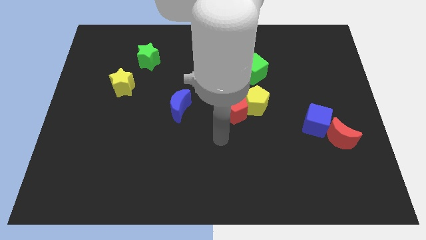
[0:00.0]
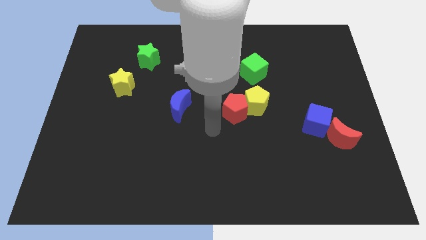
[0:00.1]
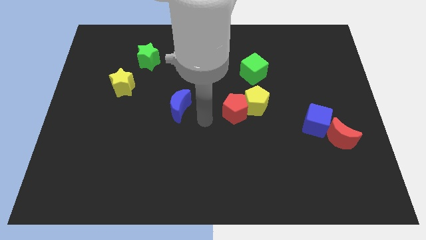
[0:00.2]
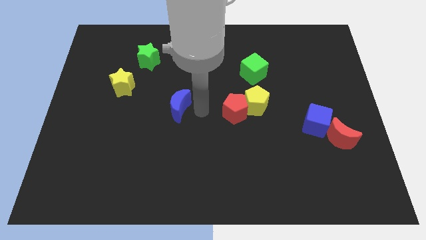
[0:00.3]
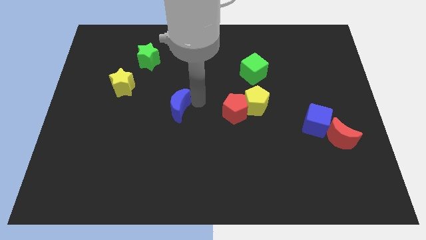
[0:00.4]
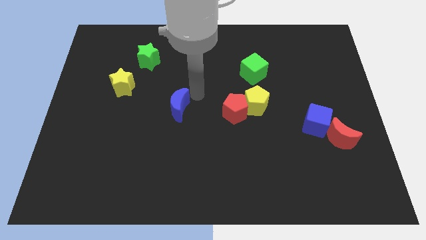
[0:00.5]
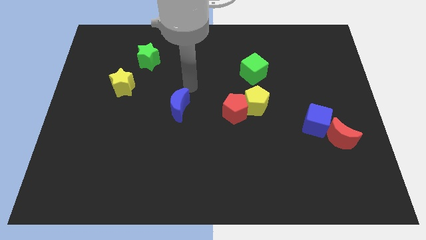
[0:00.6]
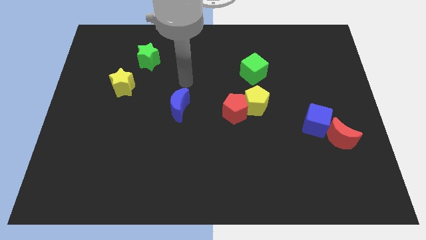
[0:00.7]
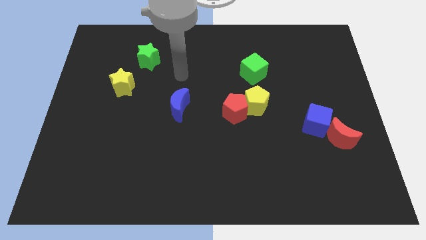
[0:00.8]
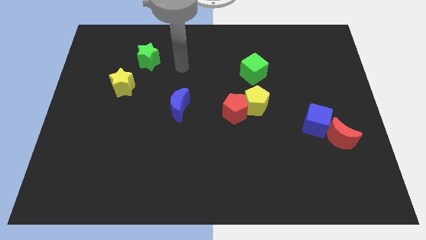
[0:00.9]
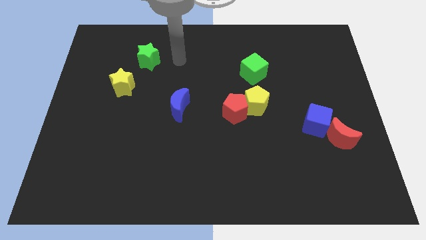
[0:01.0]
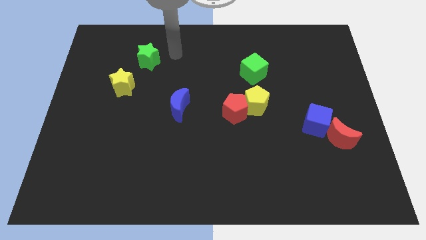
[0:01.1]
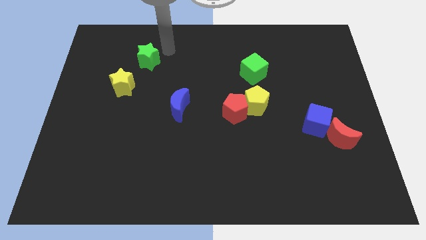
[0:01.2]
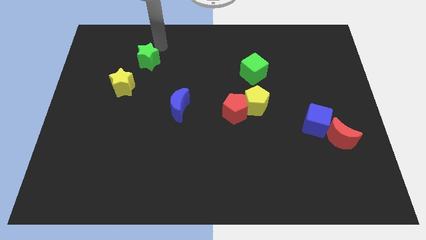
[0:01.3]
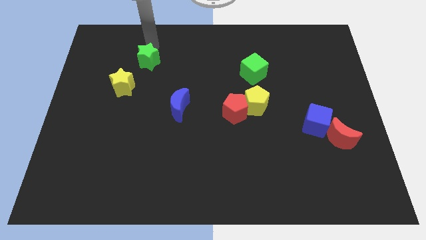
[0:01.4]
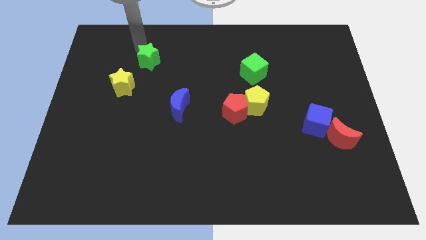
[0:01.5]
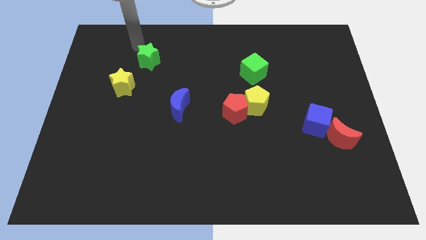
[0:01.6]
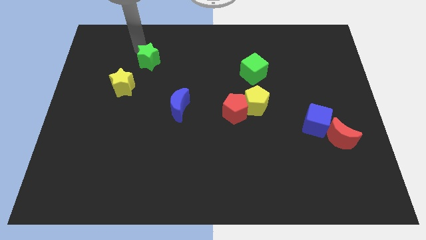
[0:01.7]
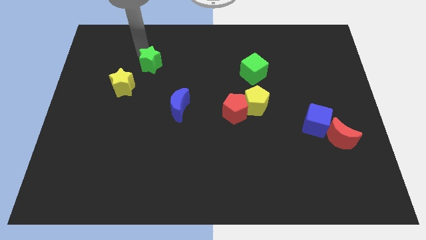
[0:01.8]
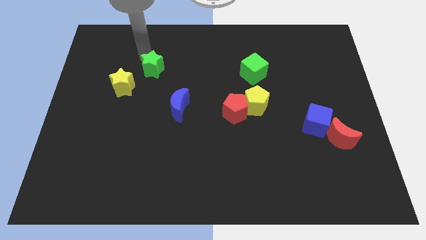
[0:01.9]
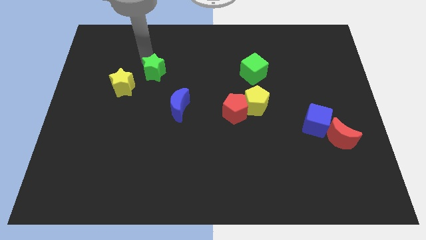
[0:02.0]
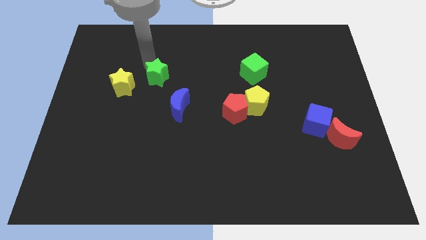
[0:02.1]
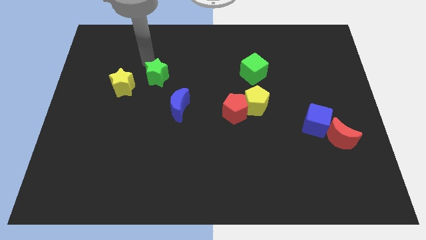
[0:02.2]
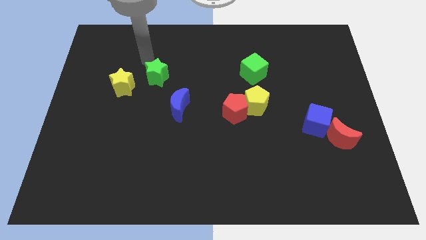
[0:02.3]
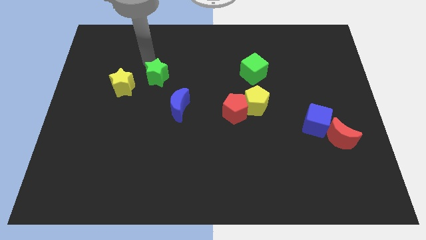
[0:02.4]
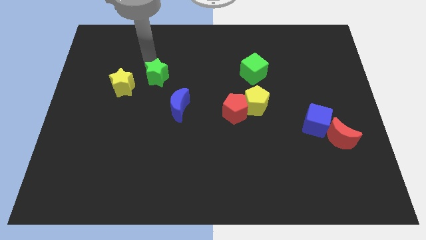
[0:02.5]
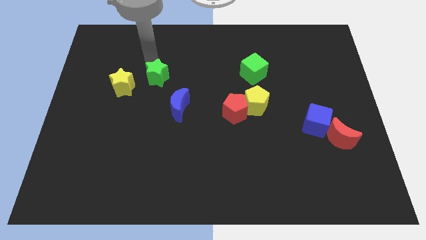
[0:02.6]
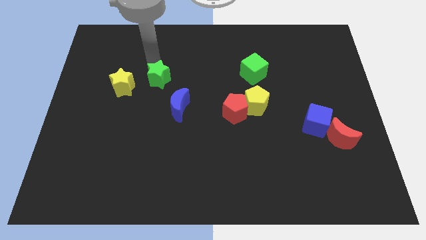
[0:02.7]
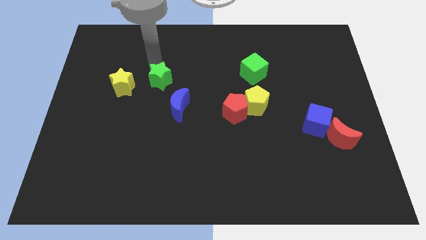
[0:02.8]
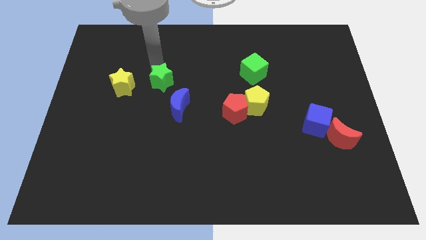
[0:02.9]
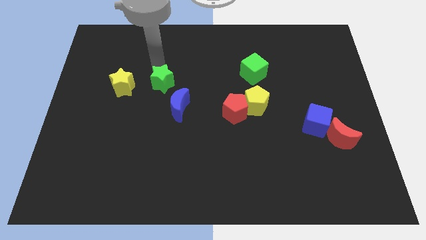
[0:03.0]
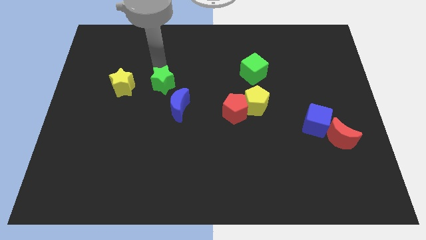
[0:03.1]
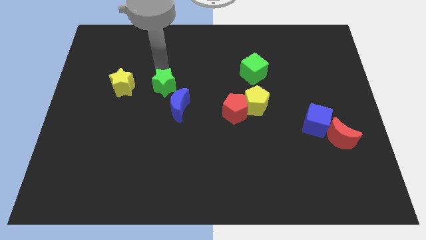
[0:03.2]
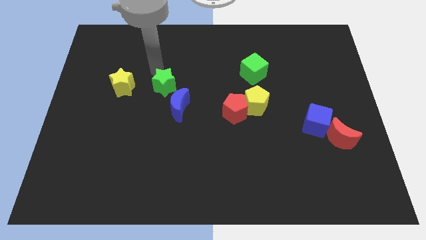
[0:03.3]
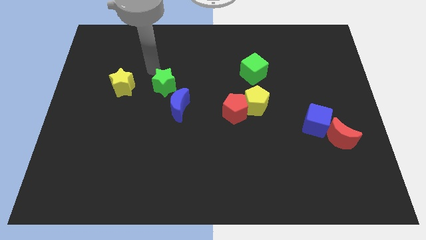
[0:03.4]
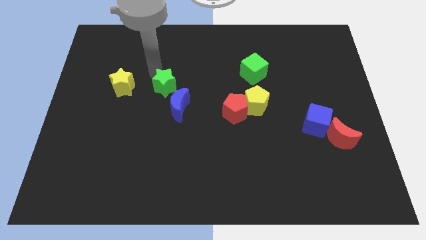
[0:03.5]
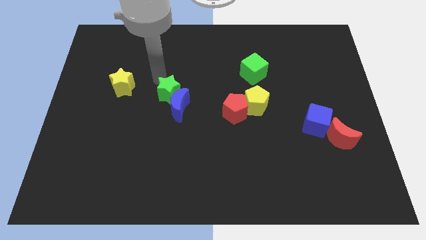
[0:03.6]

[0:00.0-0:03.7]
slide the green star close to the blue moon

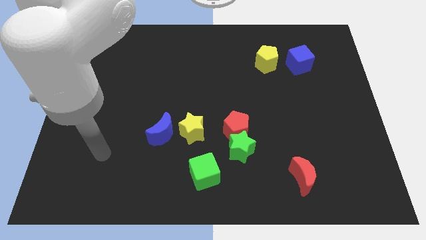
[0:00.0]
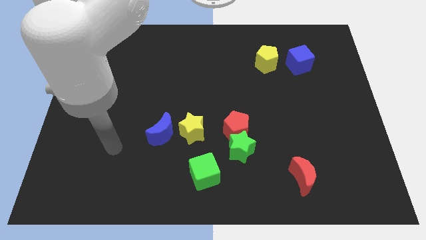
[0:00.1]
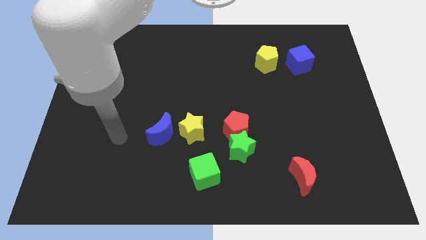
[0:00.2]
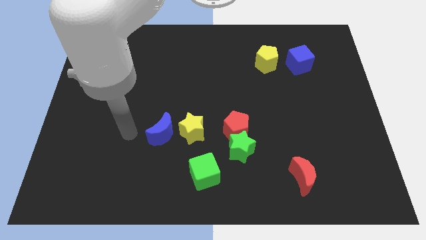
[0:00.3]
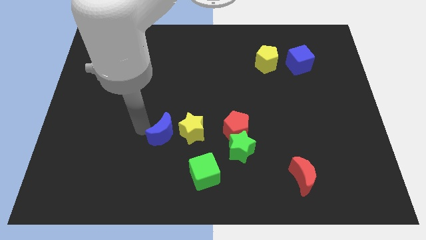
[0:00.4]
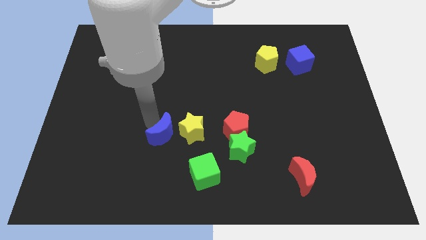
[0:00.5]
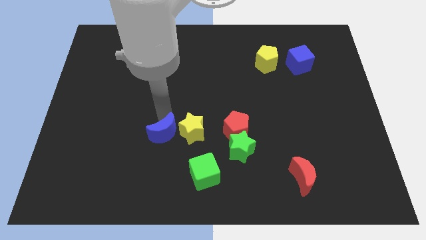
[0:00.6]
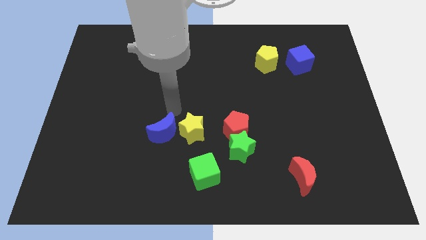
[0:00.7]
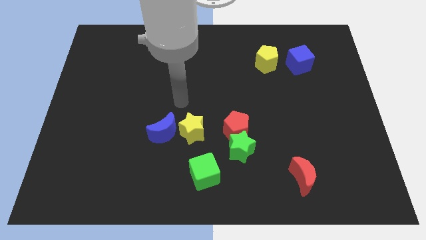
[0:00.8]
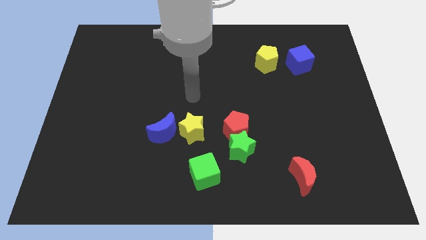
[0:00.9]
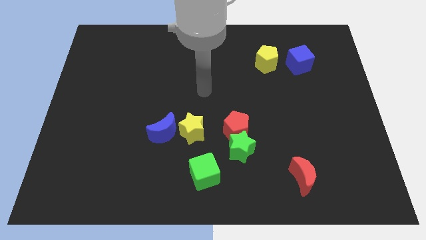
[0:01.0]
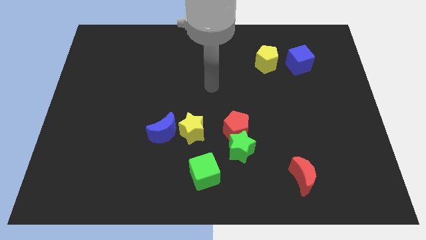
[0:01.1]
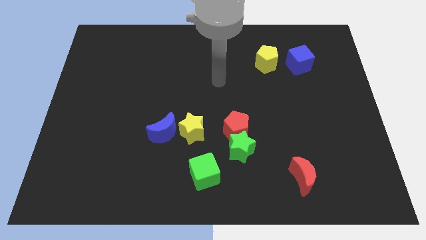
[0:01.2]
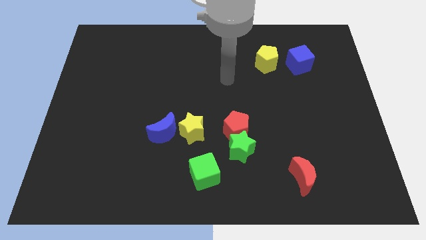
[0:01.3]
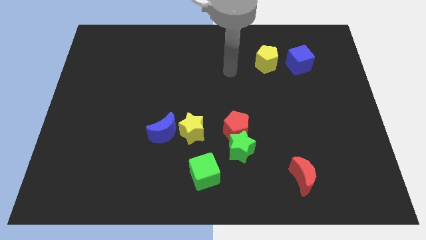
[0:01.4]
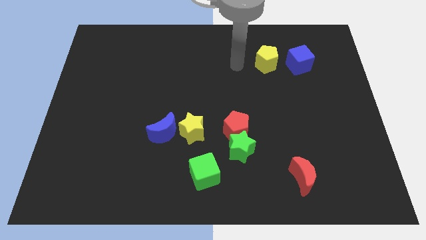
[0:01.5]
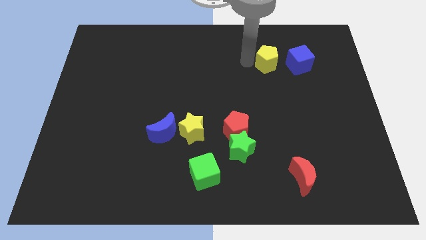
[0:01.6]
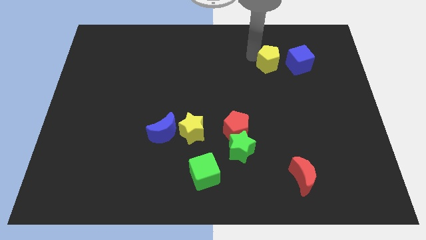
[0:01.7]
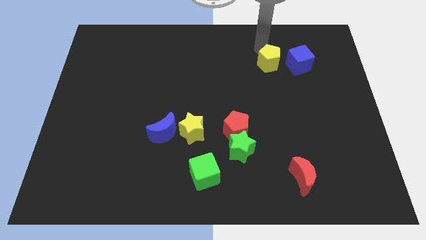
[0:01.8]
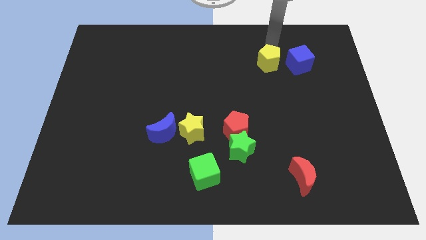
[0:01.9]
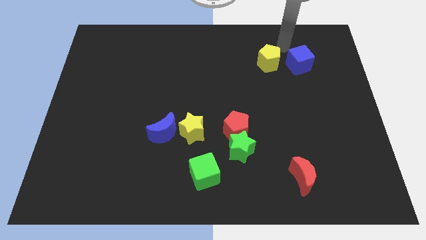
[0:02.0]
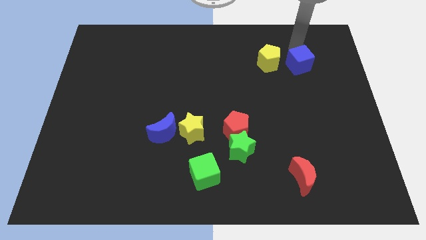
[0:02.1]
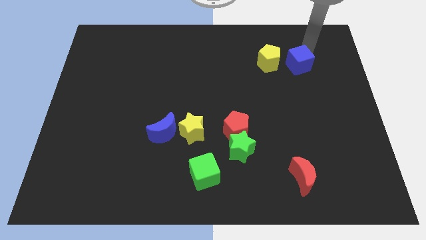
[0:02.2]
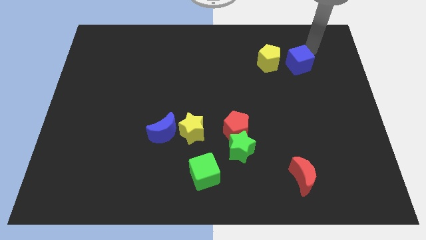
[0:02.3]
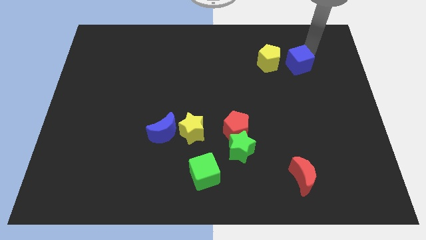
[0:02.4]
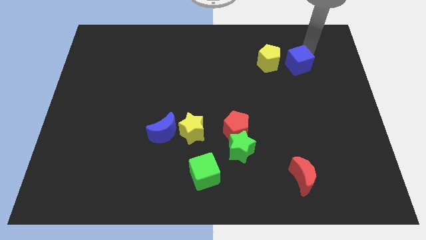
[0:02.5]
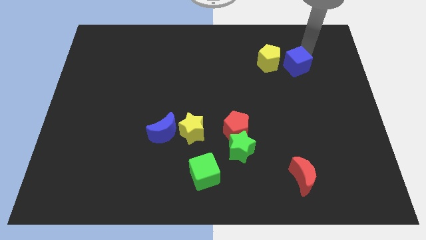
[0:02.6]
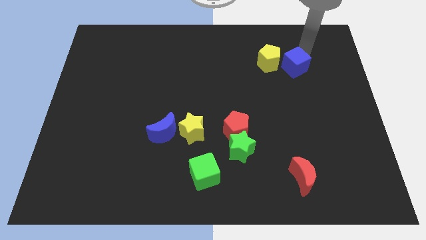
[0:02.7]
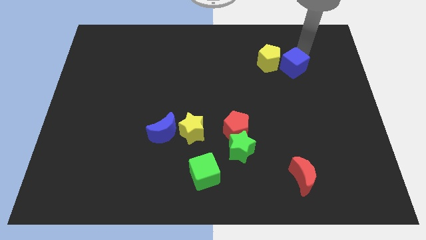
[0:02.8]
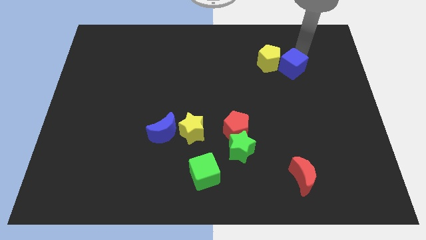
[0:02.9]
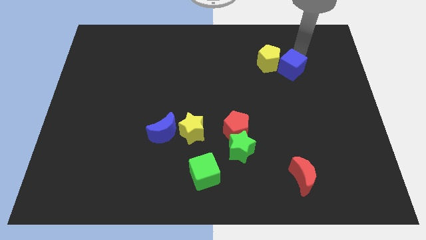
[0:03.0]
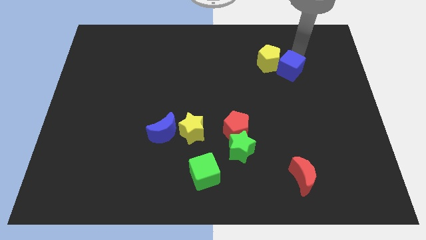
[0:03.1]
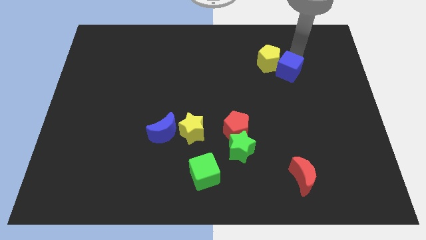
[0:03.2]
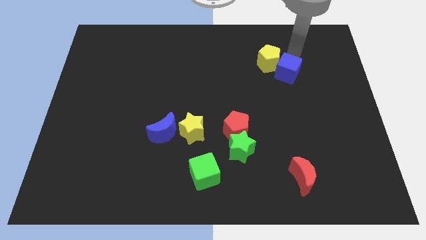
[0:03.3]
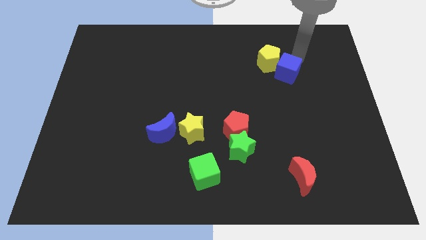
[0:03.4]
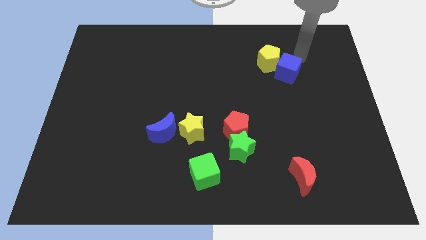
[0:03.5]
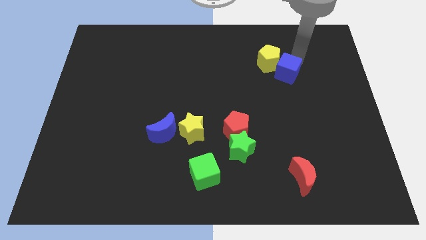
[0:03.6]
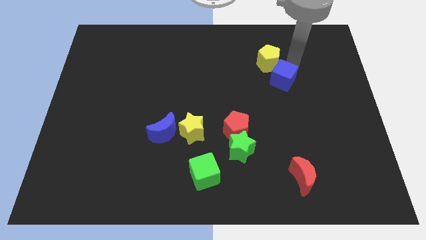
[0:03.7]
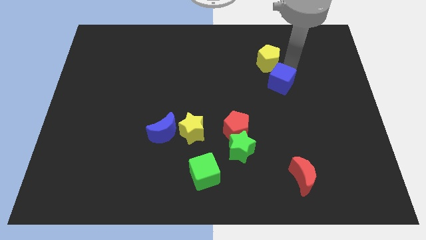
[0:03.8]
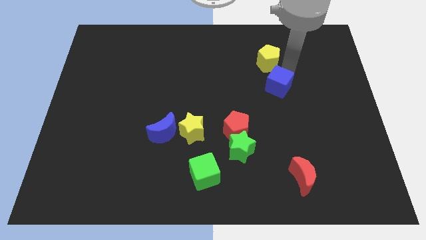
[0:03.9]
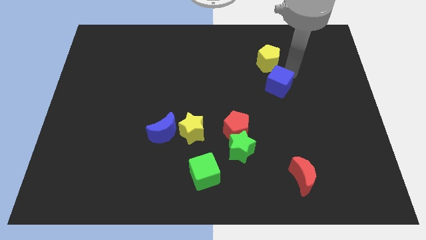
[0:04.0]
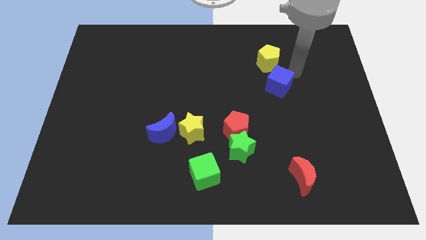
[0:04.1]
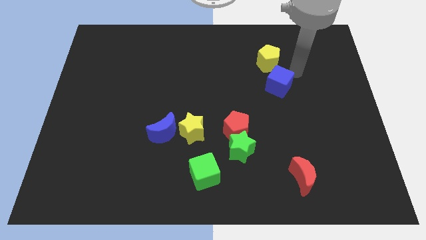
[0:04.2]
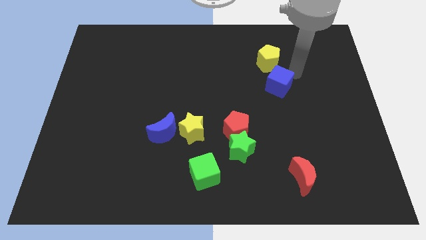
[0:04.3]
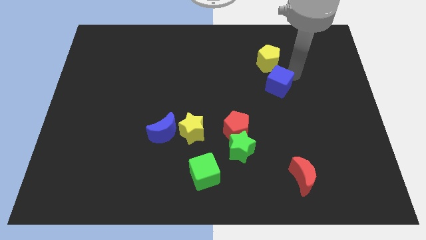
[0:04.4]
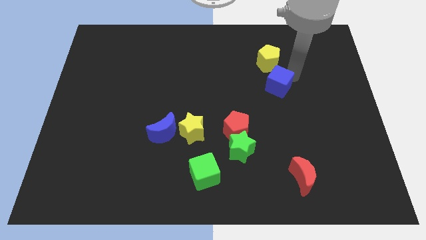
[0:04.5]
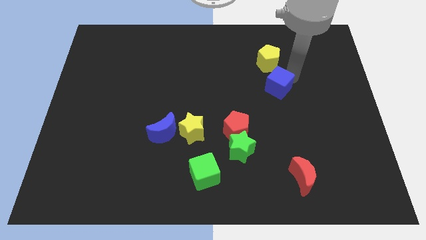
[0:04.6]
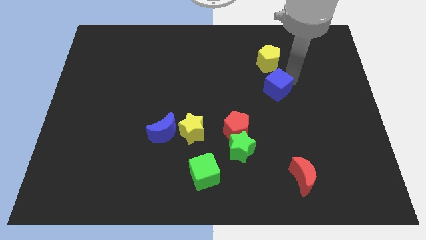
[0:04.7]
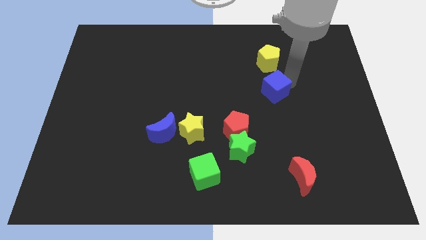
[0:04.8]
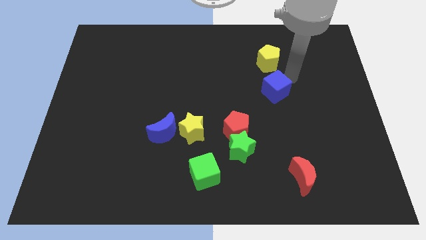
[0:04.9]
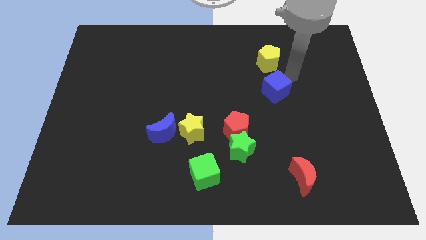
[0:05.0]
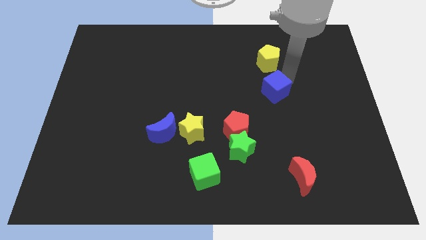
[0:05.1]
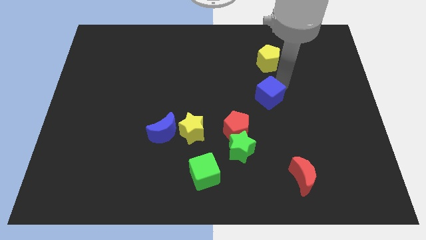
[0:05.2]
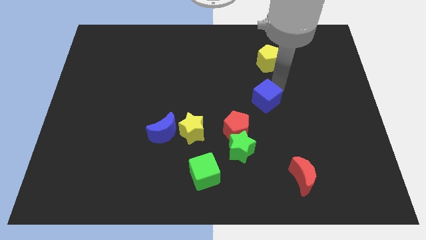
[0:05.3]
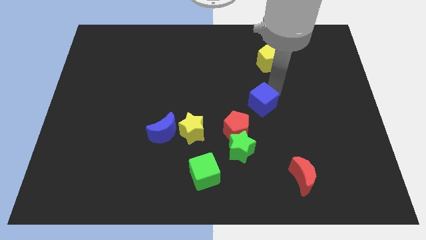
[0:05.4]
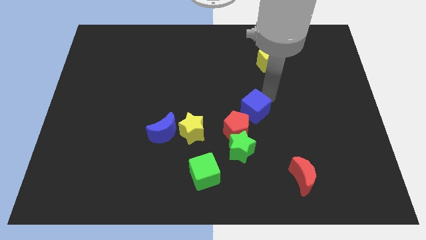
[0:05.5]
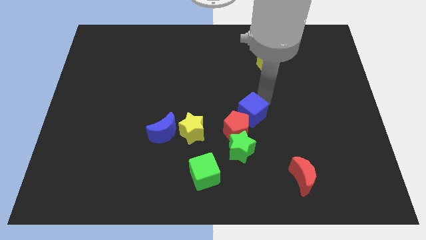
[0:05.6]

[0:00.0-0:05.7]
slide the blue cube to the red pentagon
